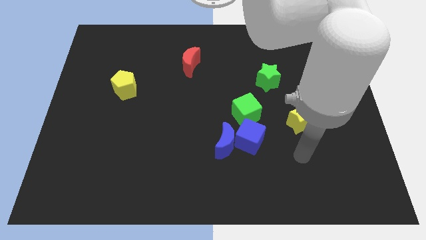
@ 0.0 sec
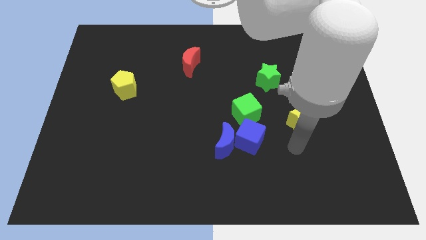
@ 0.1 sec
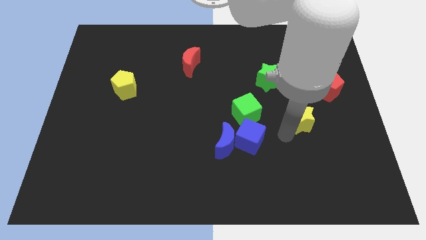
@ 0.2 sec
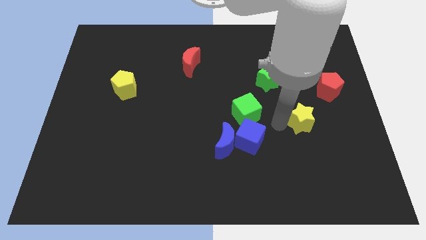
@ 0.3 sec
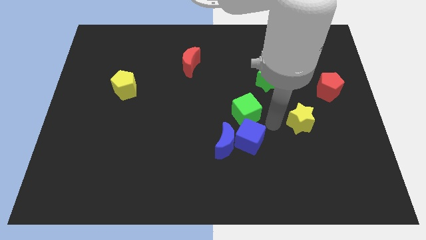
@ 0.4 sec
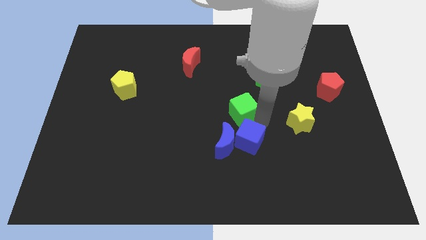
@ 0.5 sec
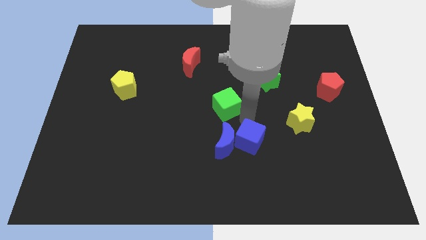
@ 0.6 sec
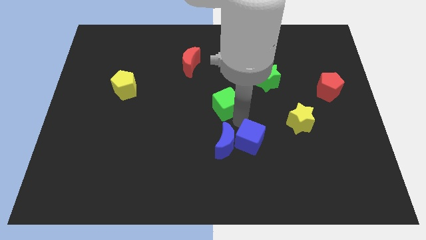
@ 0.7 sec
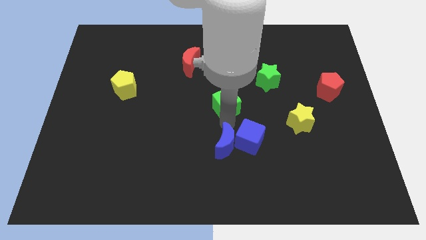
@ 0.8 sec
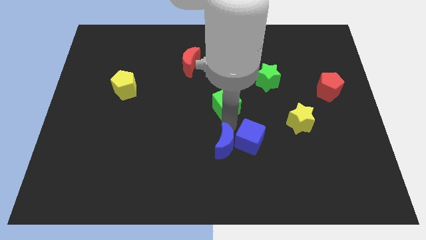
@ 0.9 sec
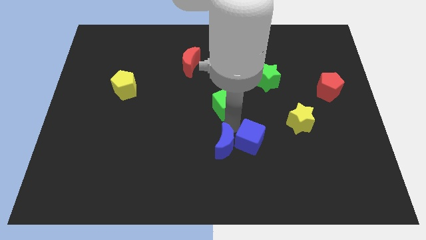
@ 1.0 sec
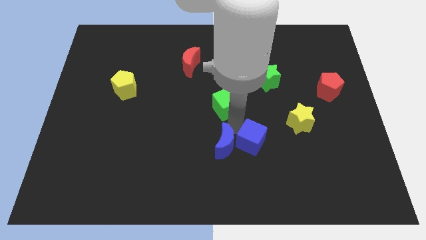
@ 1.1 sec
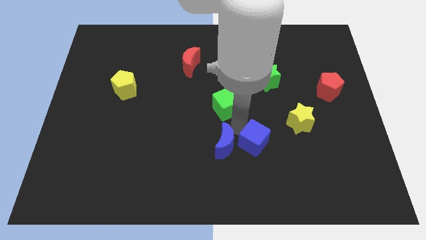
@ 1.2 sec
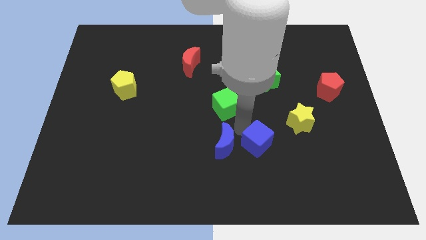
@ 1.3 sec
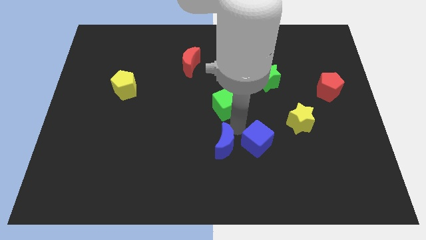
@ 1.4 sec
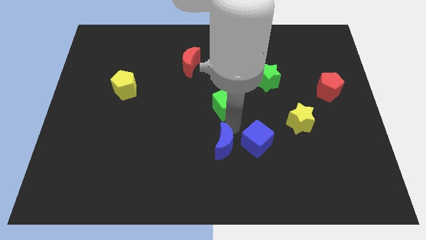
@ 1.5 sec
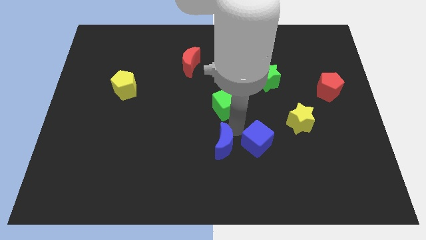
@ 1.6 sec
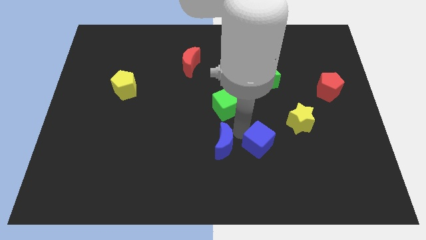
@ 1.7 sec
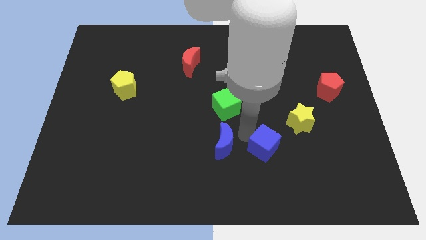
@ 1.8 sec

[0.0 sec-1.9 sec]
separate the blue cube from the blue moon and green cube

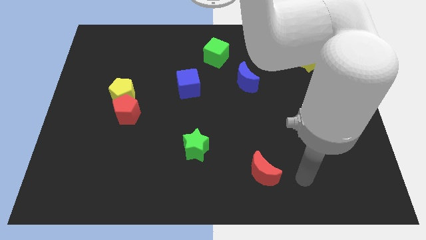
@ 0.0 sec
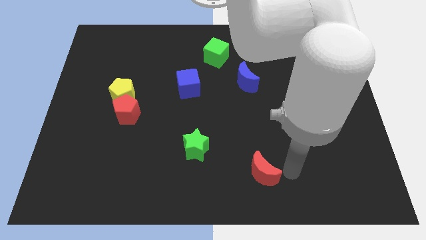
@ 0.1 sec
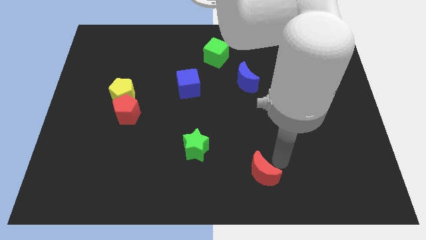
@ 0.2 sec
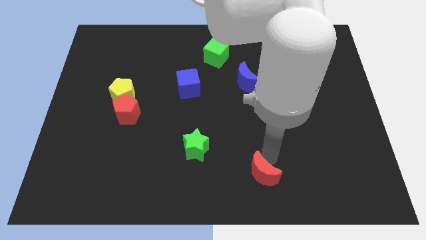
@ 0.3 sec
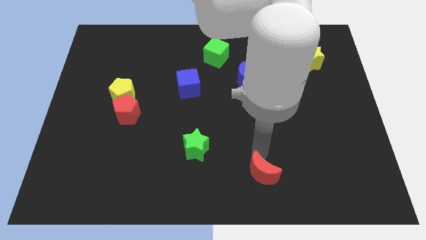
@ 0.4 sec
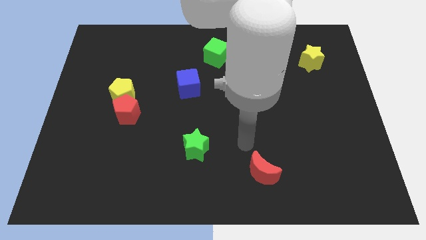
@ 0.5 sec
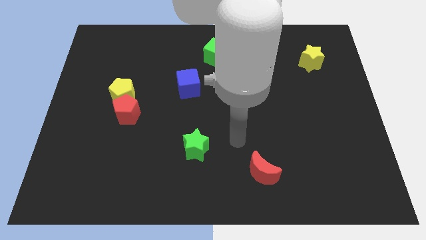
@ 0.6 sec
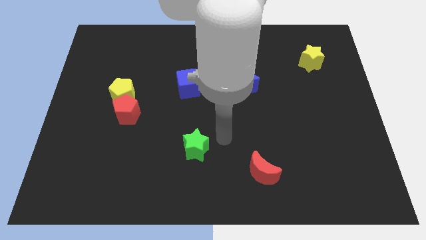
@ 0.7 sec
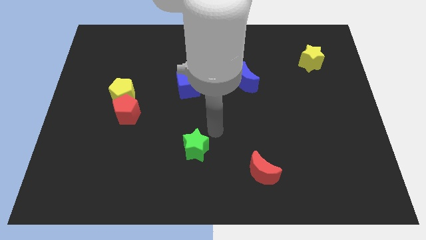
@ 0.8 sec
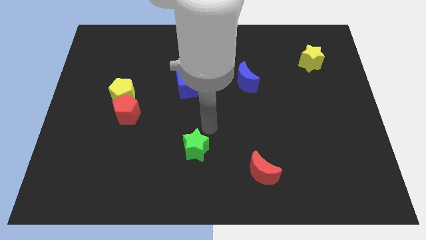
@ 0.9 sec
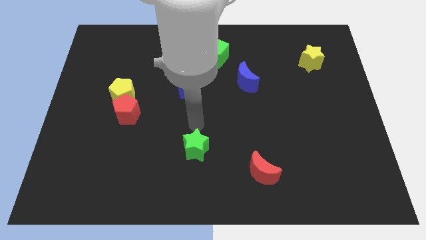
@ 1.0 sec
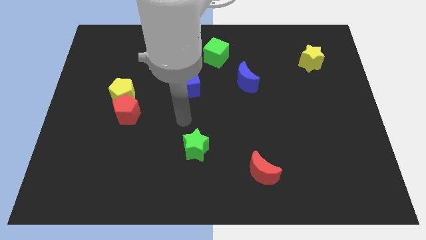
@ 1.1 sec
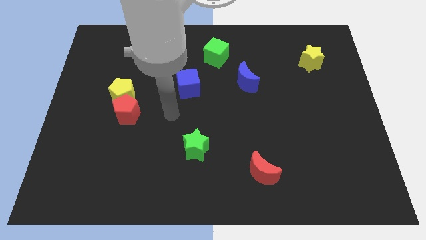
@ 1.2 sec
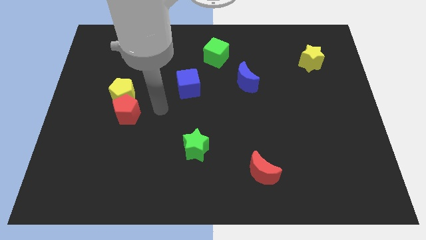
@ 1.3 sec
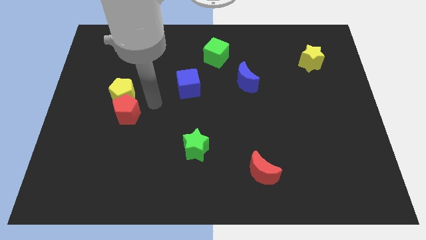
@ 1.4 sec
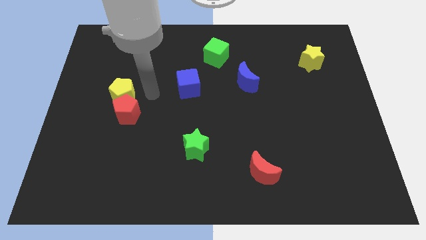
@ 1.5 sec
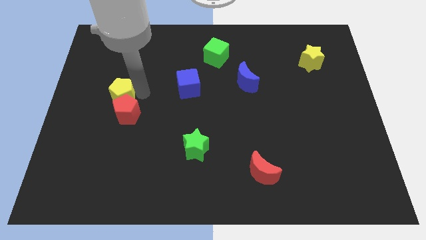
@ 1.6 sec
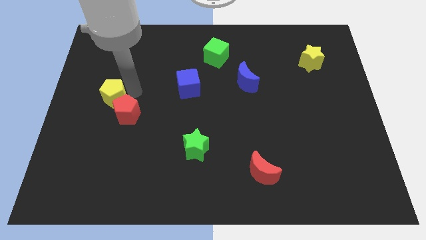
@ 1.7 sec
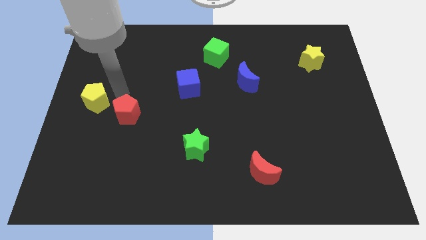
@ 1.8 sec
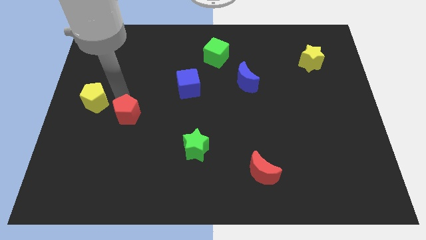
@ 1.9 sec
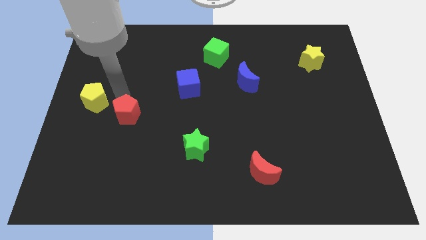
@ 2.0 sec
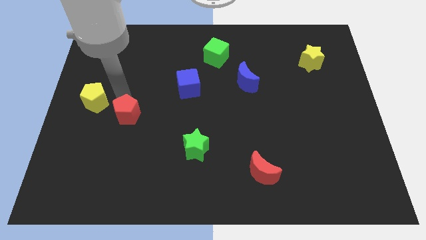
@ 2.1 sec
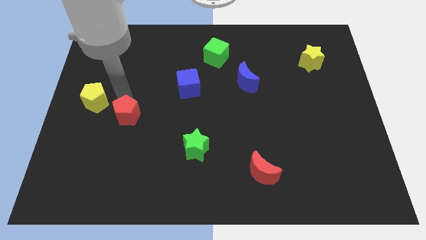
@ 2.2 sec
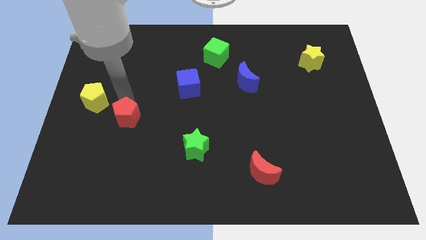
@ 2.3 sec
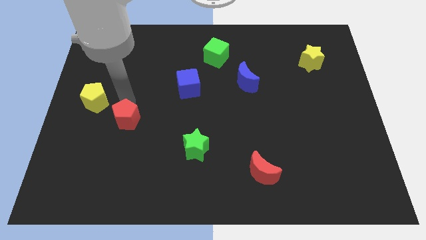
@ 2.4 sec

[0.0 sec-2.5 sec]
pull the red pentagon apart from the yellow pentagon

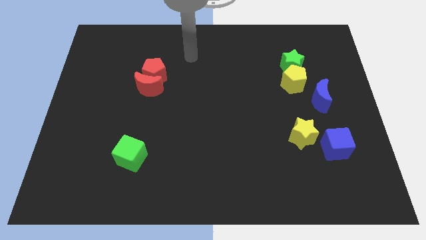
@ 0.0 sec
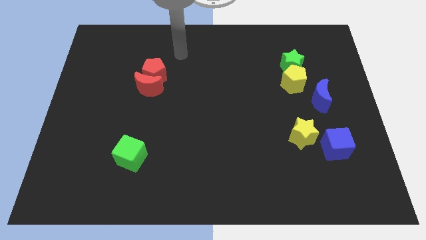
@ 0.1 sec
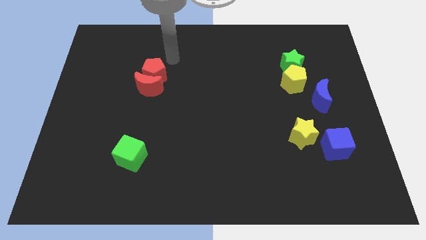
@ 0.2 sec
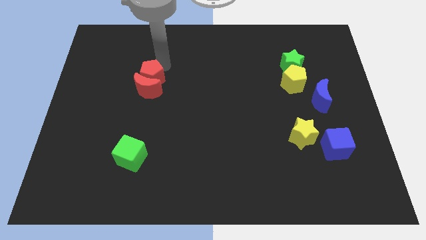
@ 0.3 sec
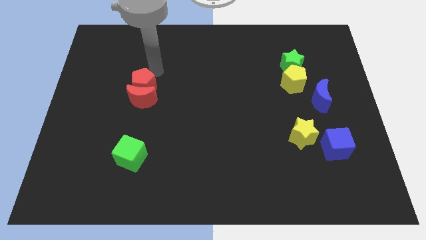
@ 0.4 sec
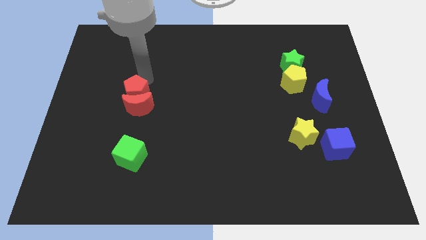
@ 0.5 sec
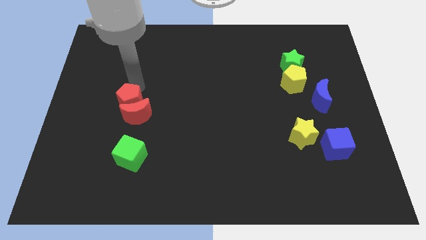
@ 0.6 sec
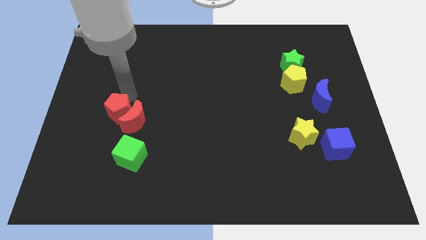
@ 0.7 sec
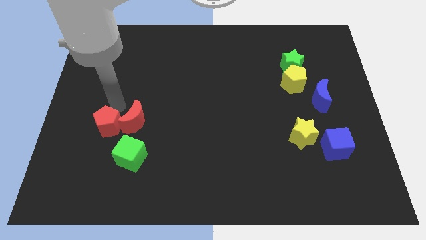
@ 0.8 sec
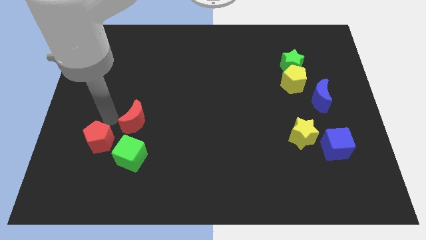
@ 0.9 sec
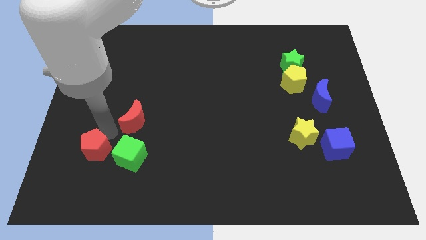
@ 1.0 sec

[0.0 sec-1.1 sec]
move the red moon away from the red pentagon

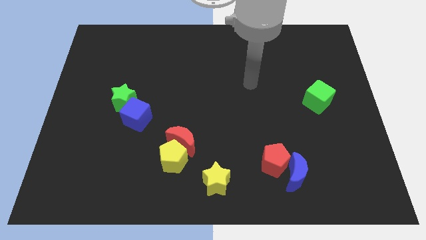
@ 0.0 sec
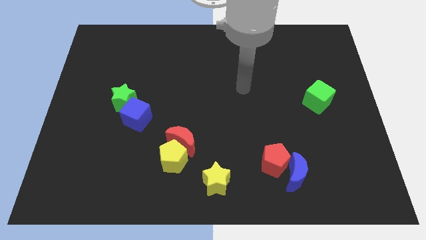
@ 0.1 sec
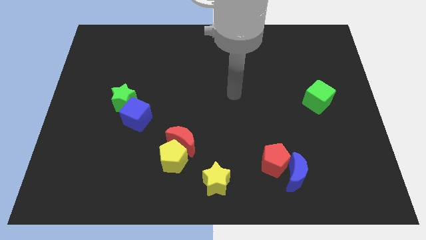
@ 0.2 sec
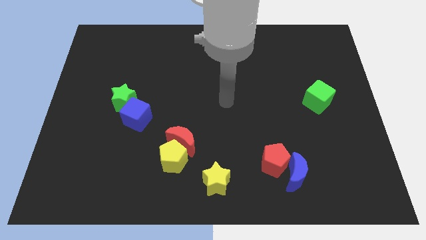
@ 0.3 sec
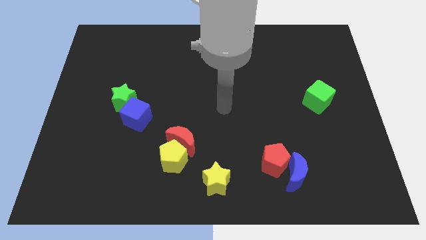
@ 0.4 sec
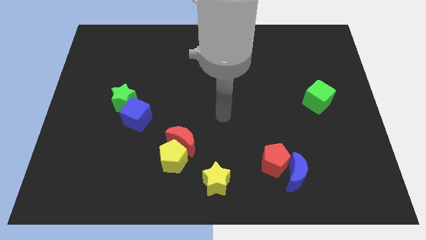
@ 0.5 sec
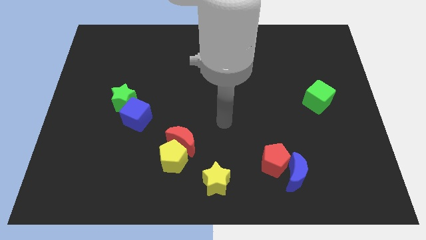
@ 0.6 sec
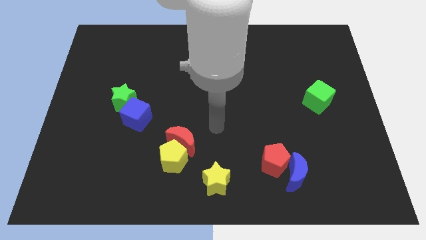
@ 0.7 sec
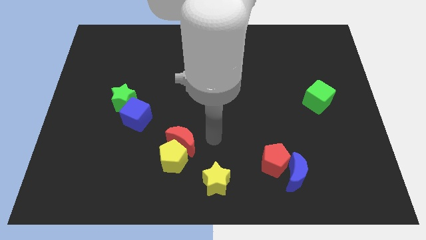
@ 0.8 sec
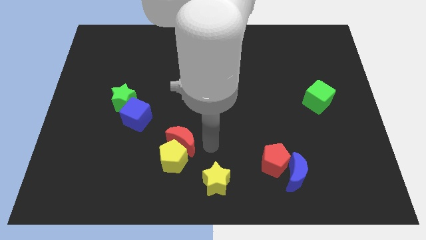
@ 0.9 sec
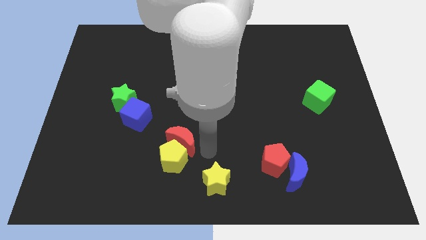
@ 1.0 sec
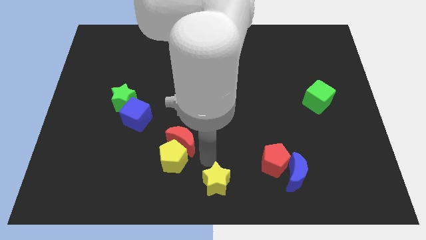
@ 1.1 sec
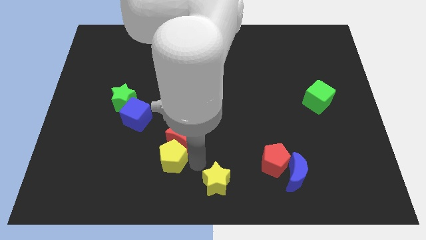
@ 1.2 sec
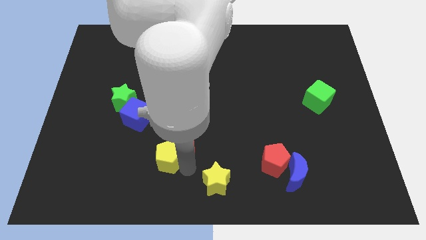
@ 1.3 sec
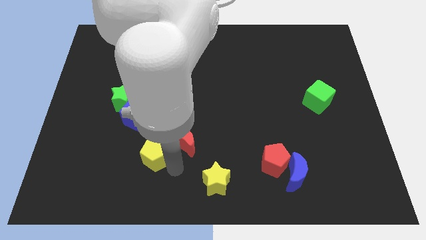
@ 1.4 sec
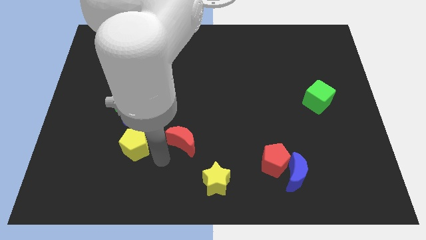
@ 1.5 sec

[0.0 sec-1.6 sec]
pull the red moon apart from the yellow pentagon

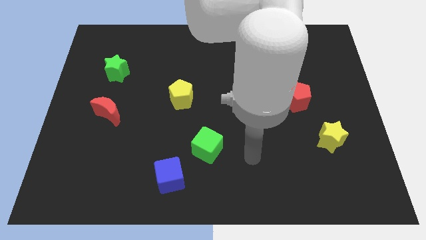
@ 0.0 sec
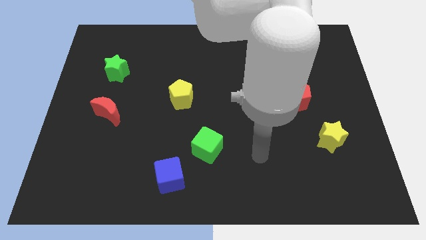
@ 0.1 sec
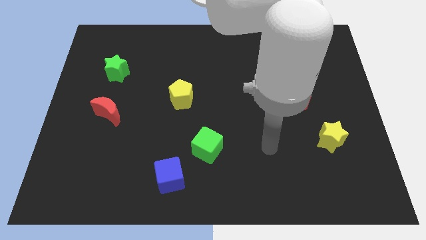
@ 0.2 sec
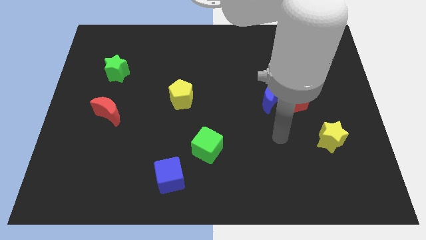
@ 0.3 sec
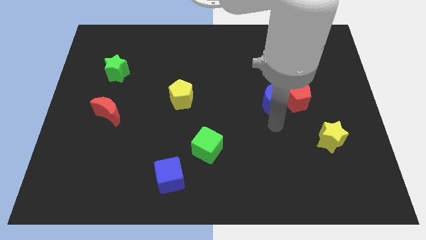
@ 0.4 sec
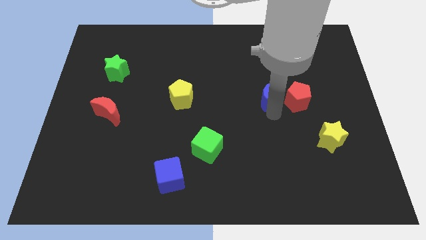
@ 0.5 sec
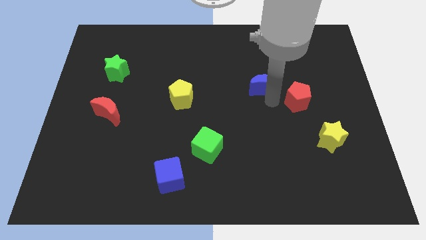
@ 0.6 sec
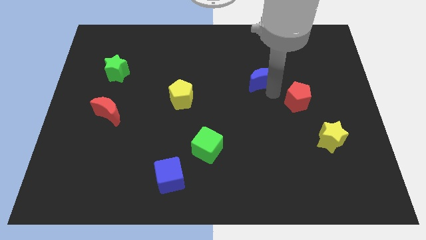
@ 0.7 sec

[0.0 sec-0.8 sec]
separate the red pentagon from the blue moon

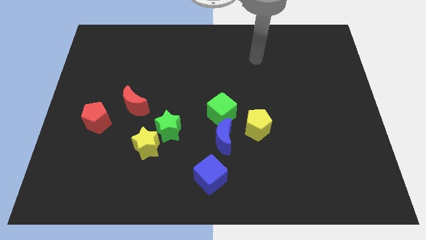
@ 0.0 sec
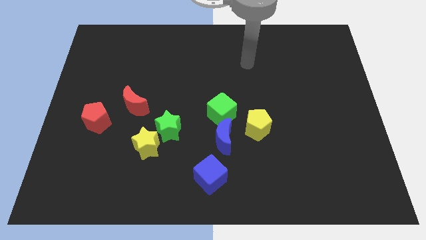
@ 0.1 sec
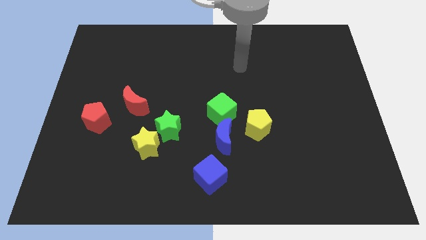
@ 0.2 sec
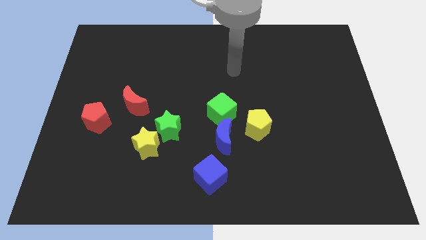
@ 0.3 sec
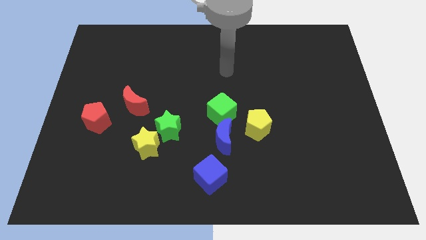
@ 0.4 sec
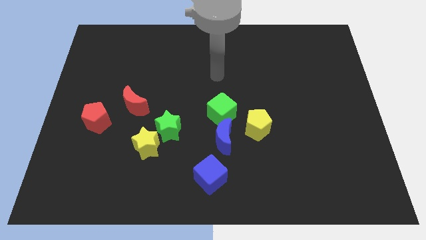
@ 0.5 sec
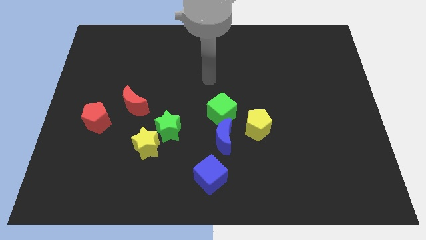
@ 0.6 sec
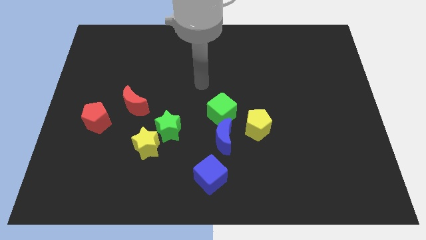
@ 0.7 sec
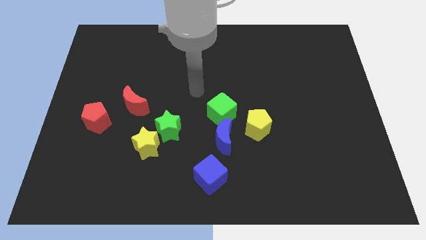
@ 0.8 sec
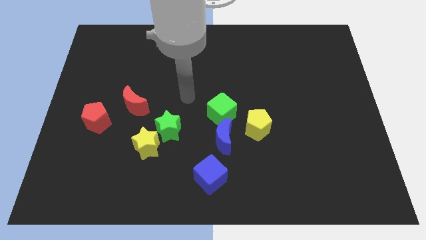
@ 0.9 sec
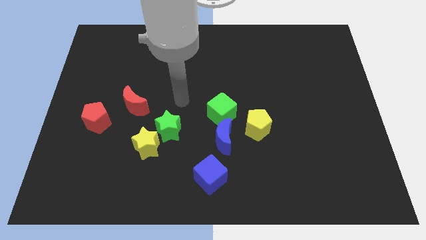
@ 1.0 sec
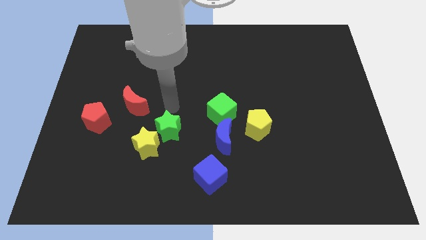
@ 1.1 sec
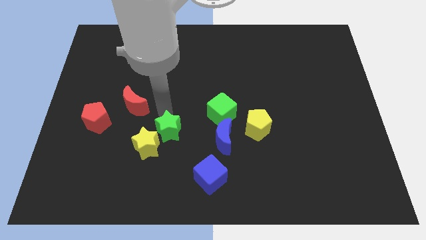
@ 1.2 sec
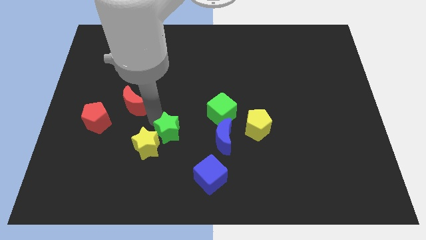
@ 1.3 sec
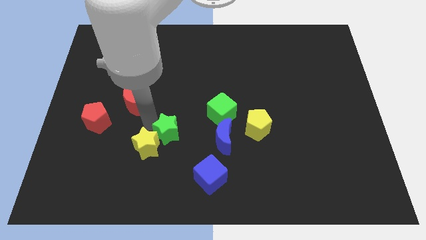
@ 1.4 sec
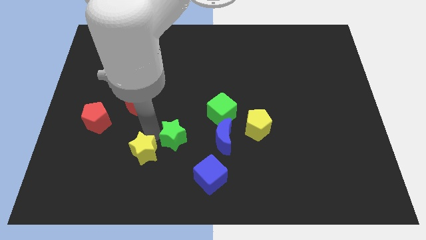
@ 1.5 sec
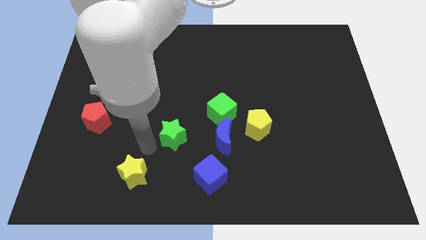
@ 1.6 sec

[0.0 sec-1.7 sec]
pull the green star apart from the yellow star
